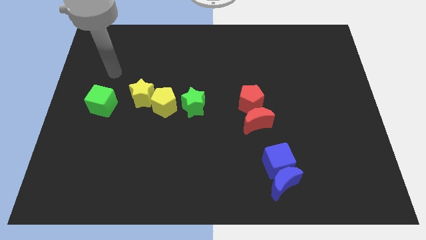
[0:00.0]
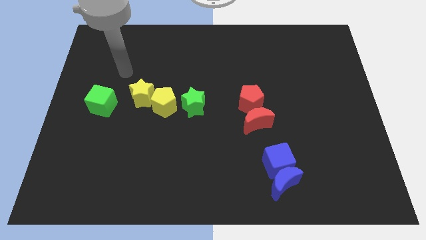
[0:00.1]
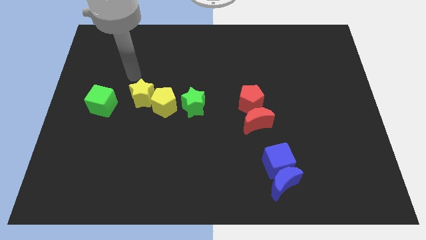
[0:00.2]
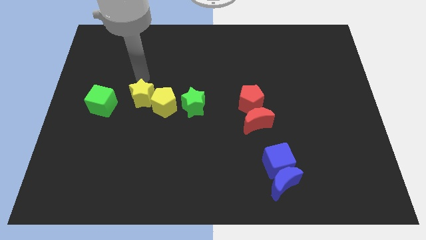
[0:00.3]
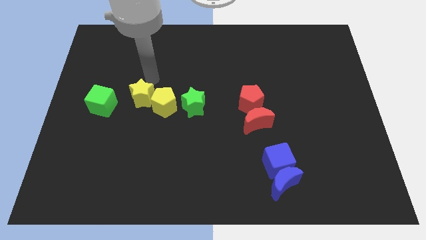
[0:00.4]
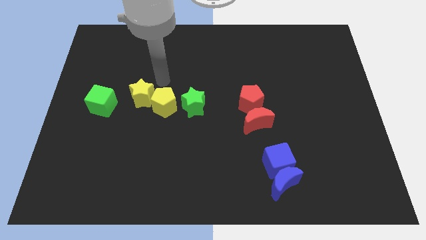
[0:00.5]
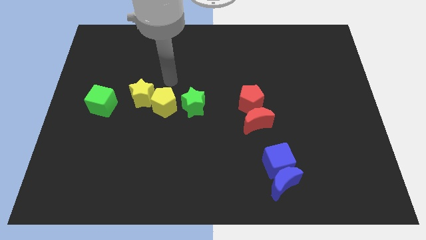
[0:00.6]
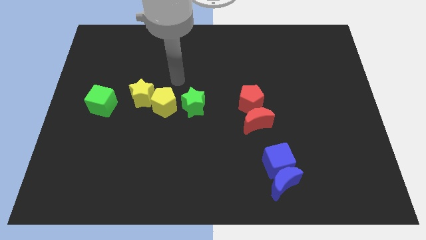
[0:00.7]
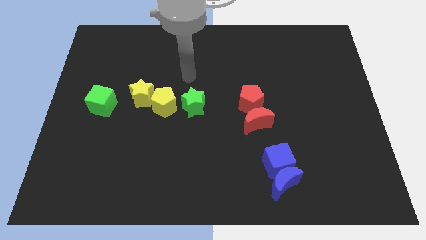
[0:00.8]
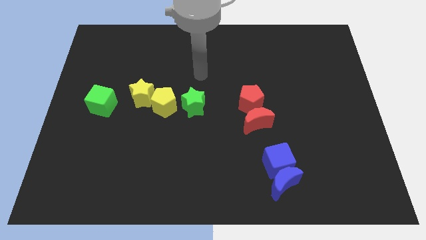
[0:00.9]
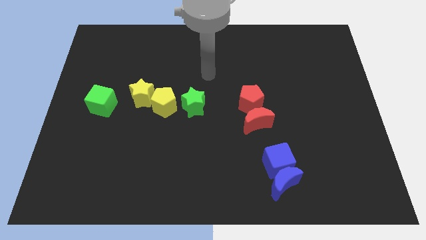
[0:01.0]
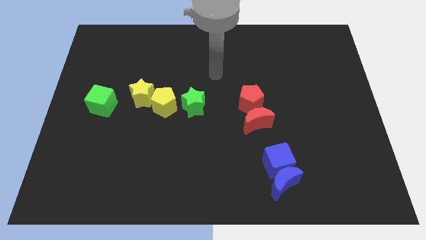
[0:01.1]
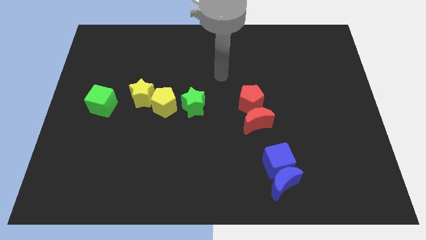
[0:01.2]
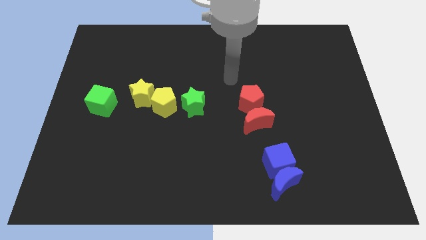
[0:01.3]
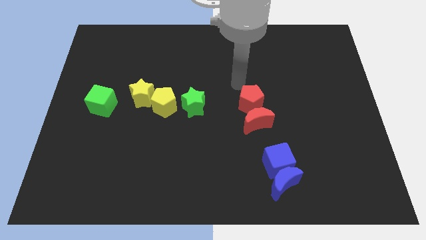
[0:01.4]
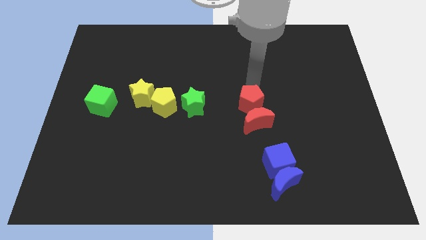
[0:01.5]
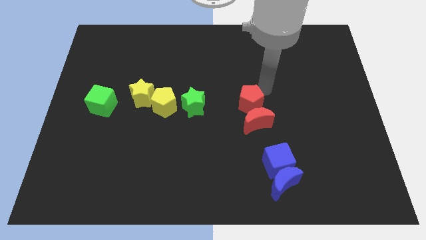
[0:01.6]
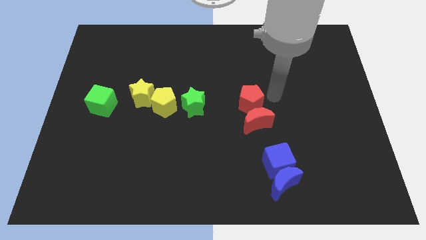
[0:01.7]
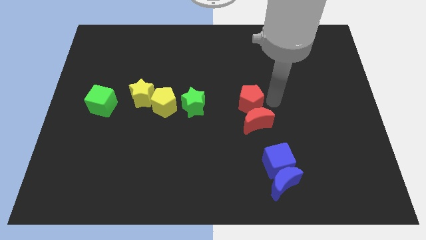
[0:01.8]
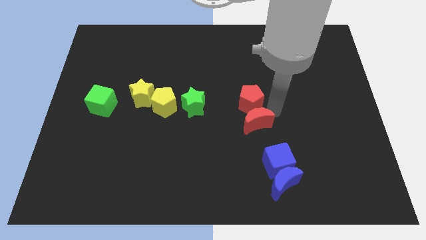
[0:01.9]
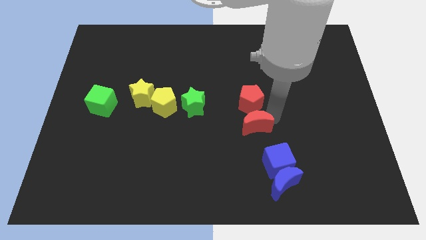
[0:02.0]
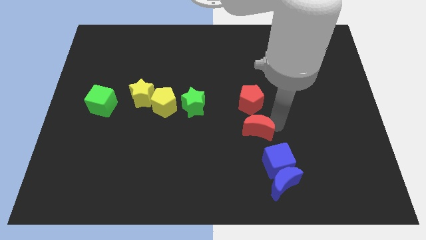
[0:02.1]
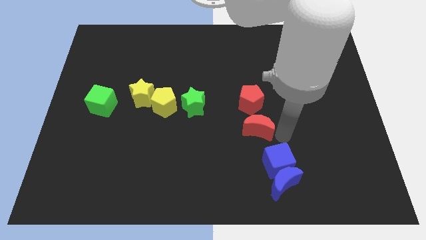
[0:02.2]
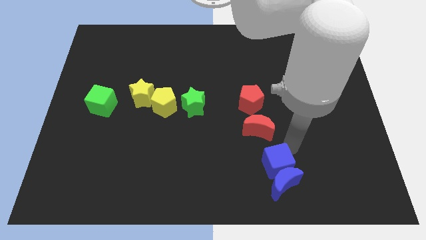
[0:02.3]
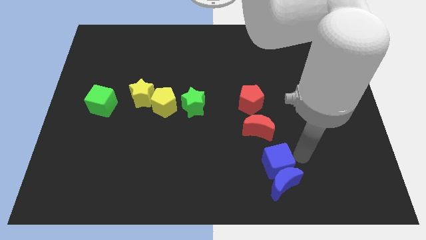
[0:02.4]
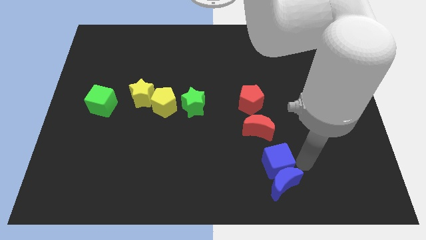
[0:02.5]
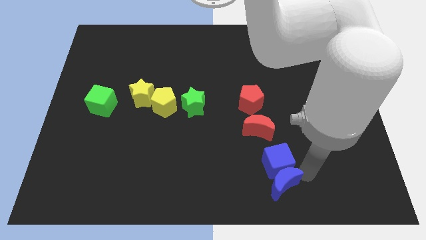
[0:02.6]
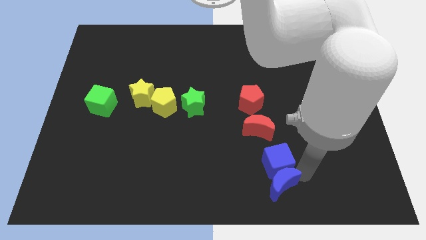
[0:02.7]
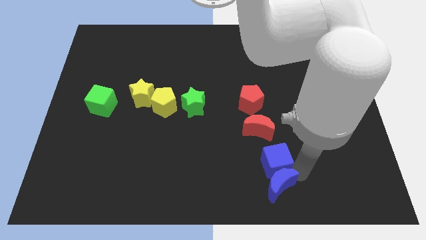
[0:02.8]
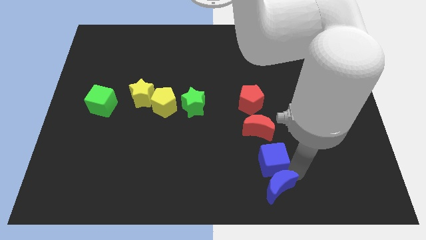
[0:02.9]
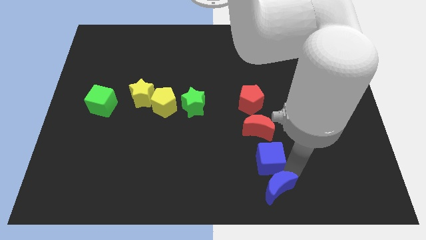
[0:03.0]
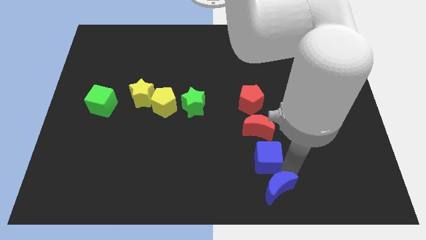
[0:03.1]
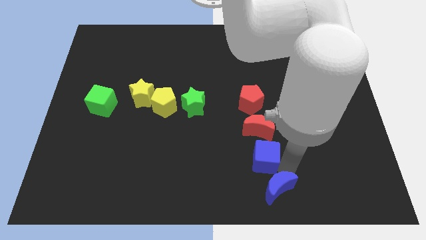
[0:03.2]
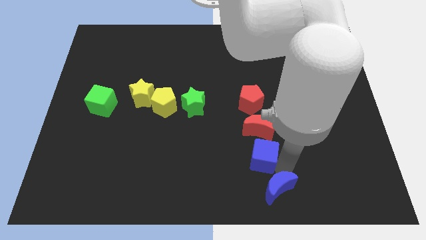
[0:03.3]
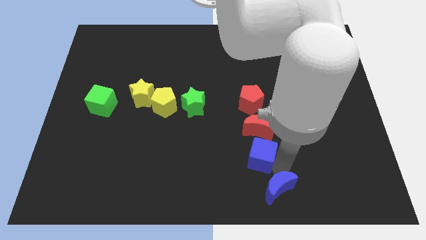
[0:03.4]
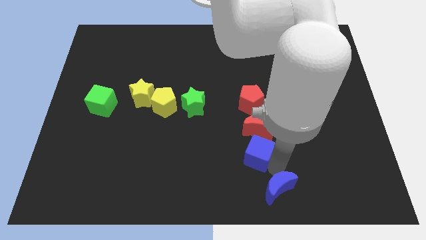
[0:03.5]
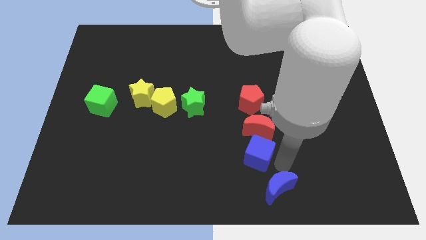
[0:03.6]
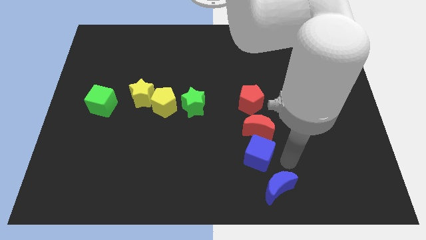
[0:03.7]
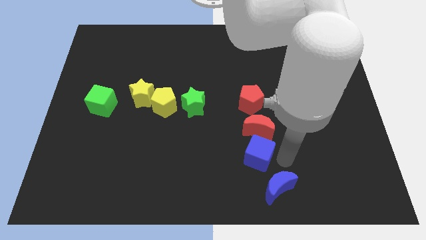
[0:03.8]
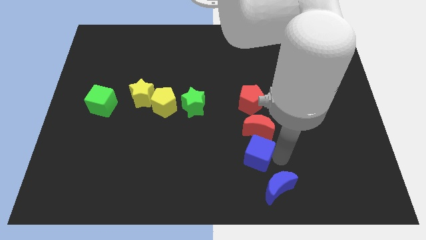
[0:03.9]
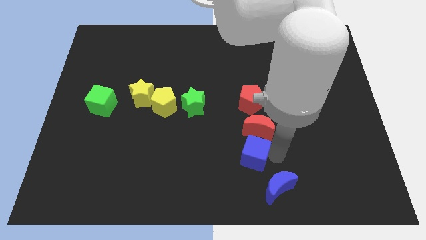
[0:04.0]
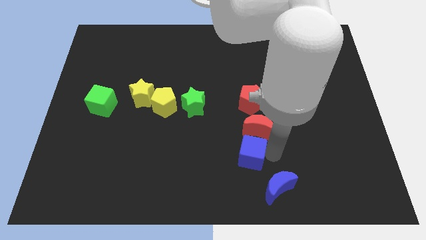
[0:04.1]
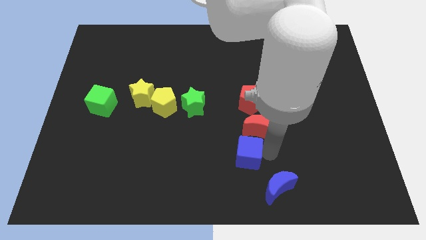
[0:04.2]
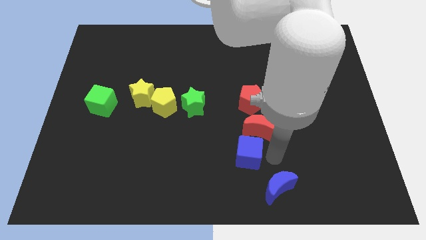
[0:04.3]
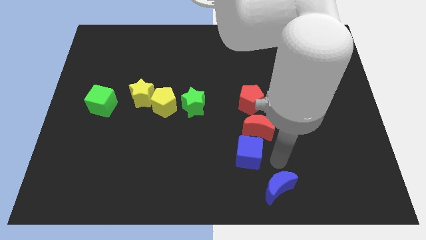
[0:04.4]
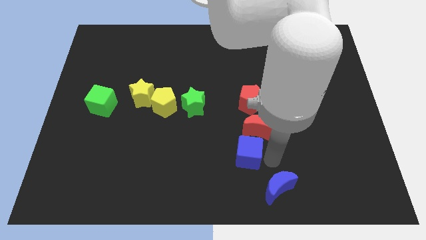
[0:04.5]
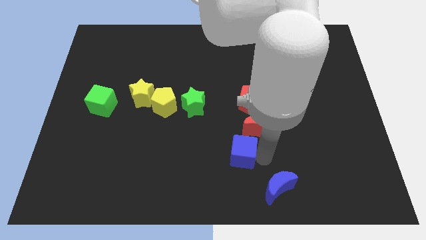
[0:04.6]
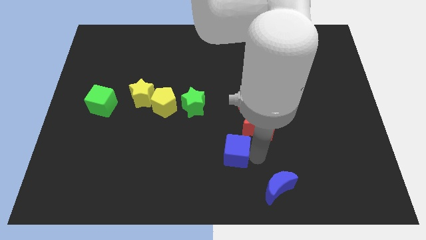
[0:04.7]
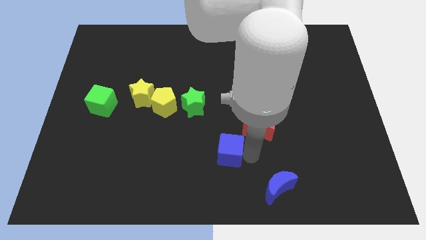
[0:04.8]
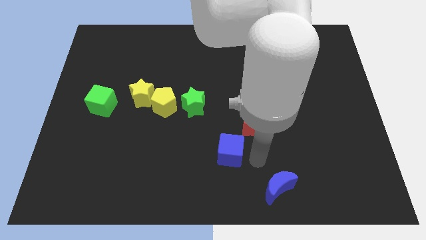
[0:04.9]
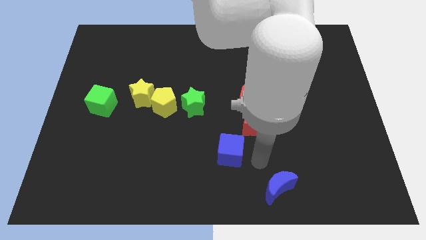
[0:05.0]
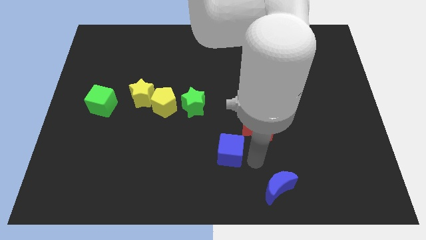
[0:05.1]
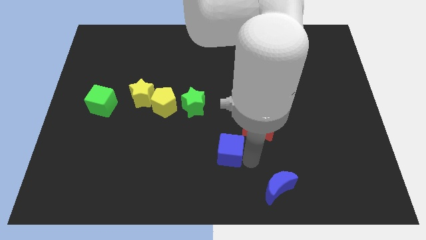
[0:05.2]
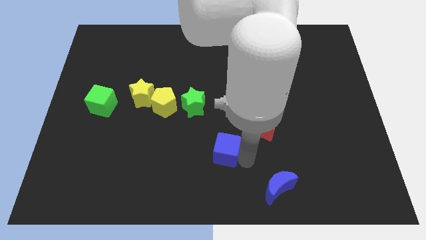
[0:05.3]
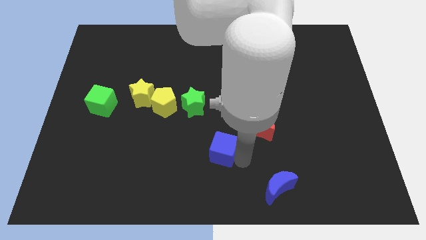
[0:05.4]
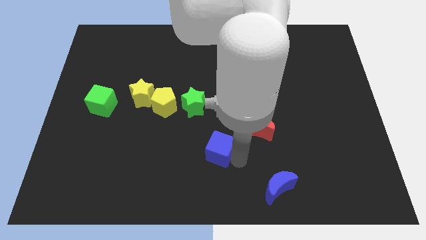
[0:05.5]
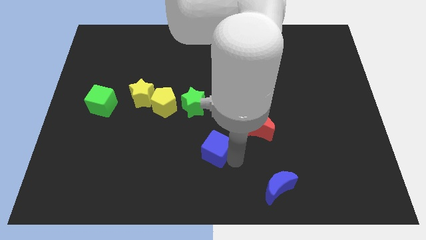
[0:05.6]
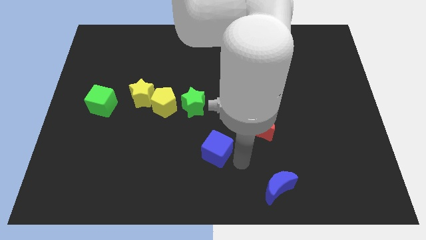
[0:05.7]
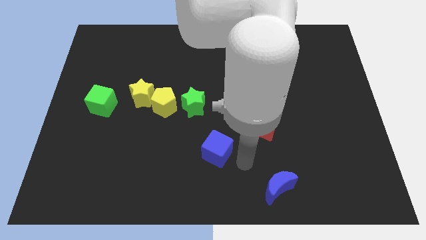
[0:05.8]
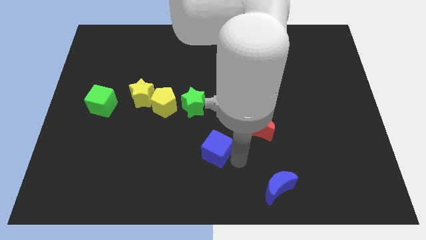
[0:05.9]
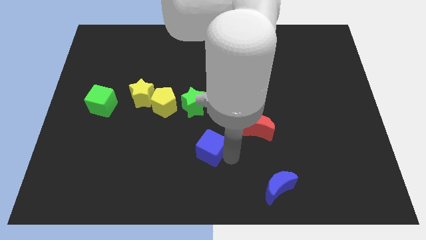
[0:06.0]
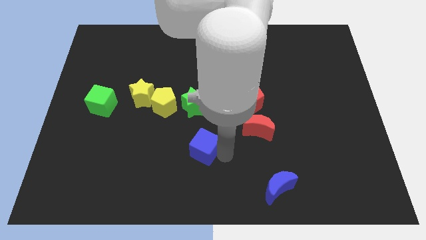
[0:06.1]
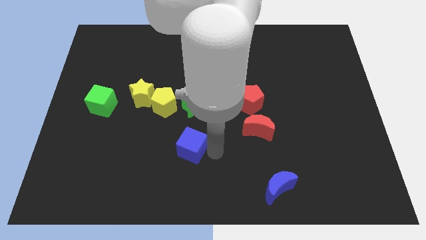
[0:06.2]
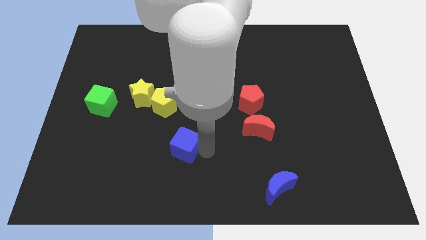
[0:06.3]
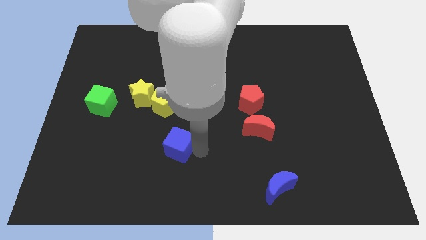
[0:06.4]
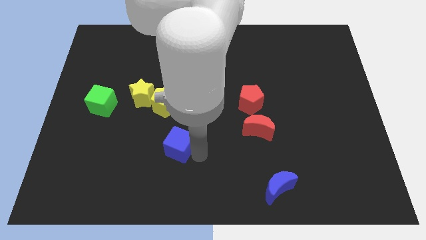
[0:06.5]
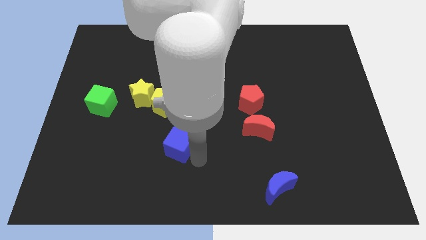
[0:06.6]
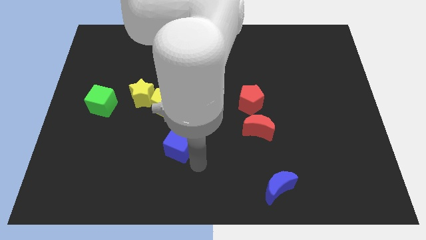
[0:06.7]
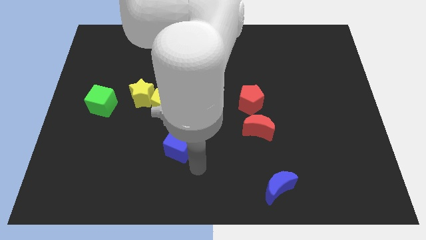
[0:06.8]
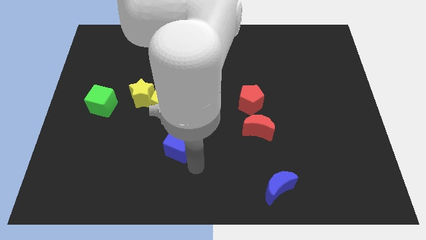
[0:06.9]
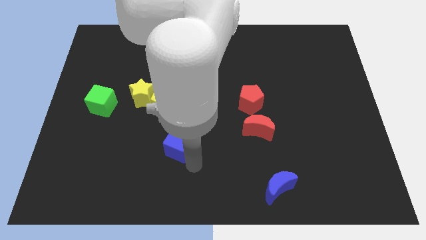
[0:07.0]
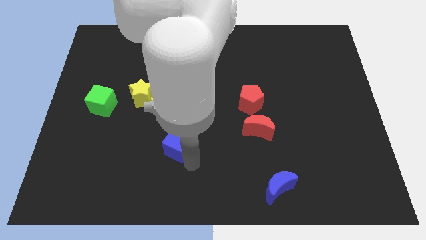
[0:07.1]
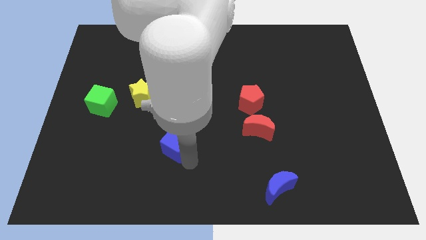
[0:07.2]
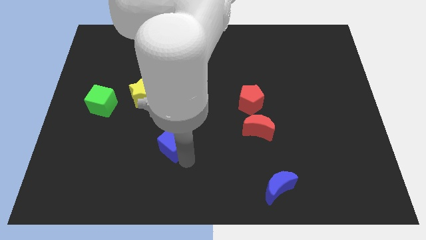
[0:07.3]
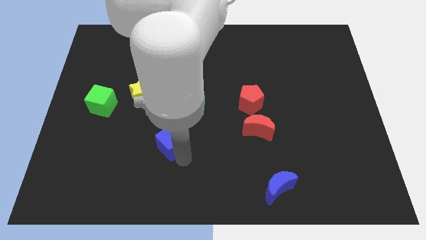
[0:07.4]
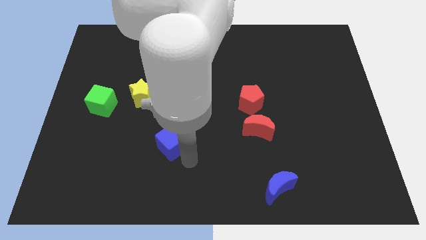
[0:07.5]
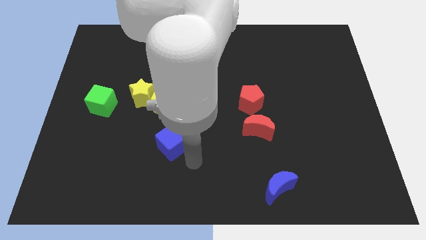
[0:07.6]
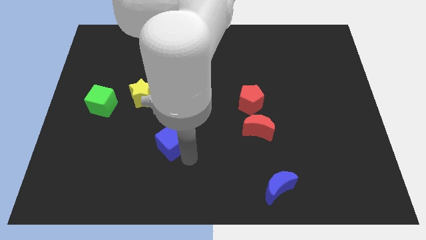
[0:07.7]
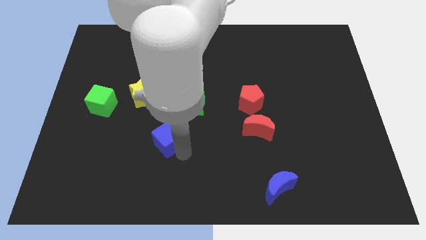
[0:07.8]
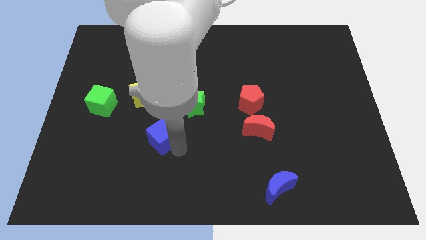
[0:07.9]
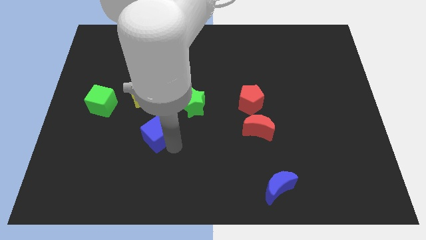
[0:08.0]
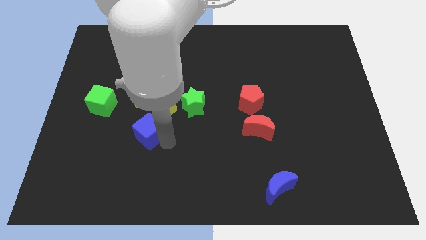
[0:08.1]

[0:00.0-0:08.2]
slide the blue cube diagonally down and to the left of the yellow pentagon
